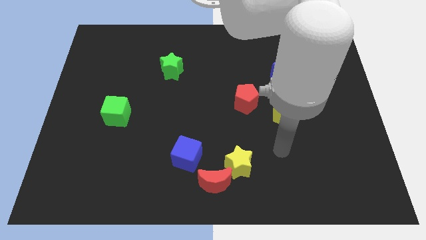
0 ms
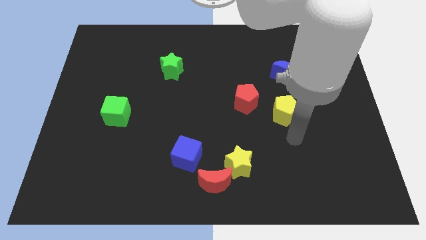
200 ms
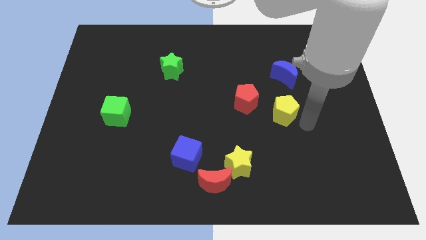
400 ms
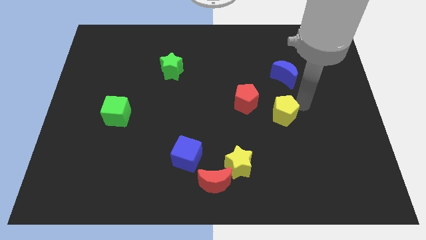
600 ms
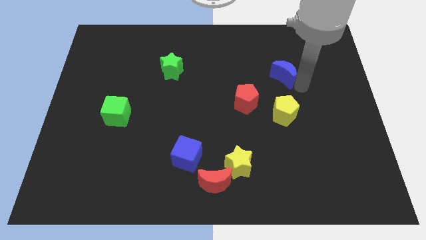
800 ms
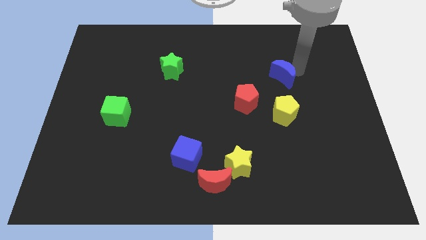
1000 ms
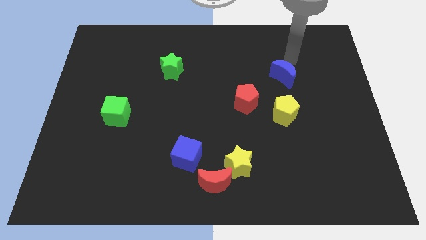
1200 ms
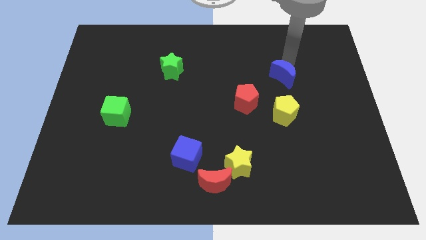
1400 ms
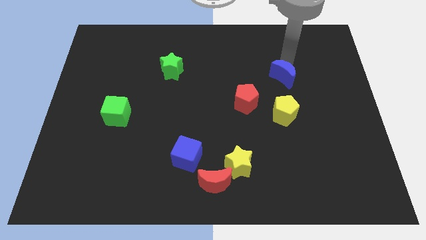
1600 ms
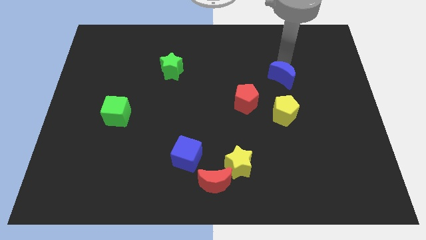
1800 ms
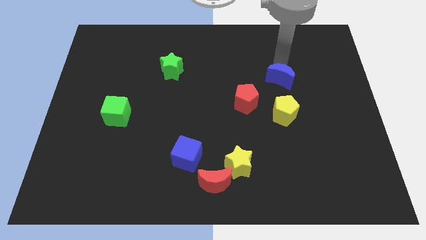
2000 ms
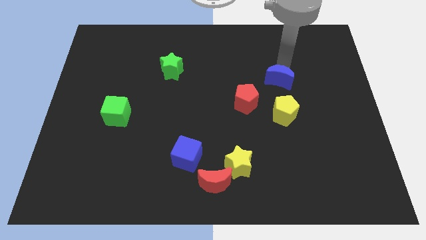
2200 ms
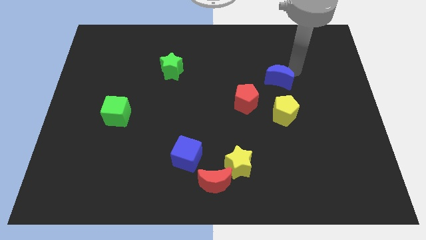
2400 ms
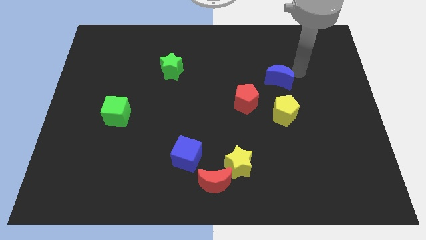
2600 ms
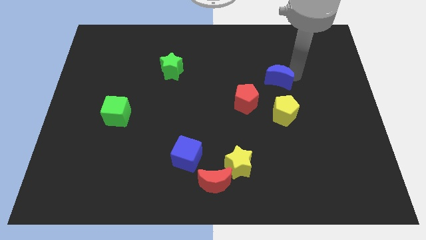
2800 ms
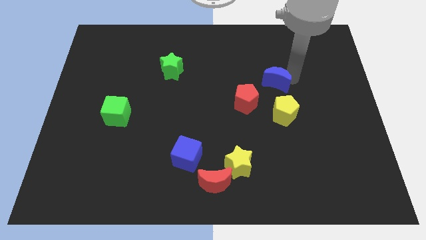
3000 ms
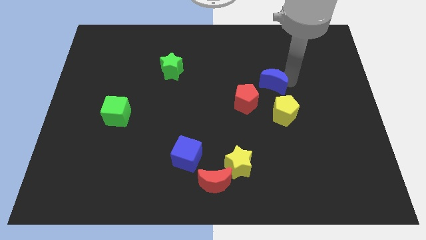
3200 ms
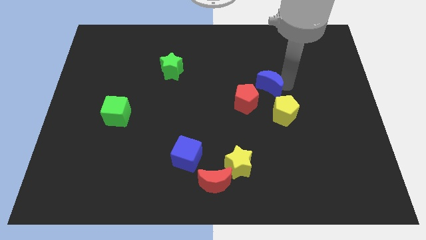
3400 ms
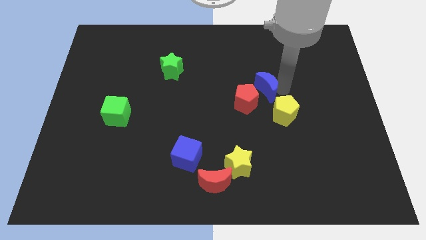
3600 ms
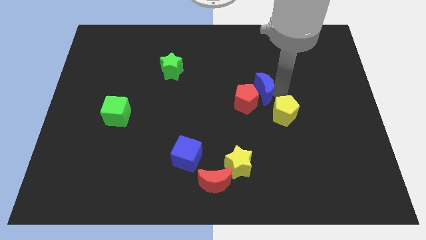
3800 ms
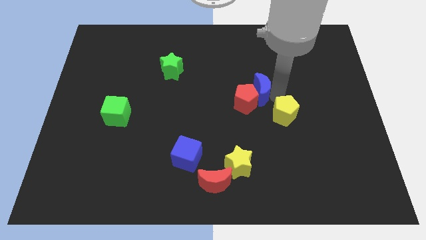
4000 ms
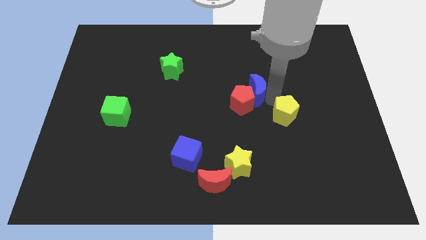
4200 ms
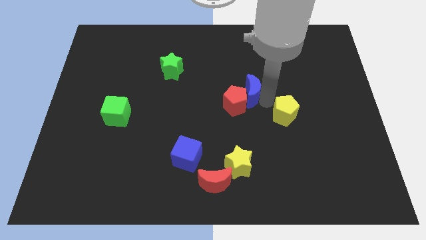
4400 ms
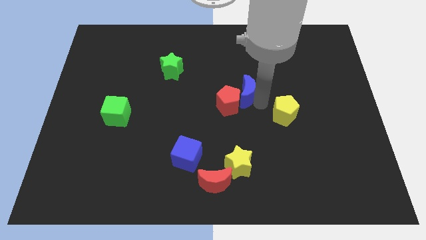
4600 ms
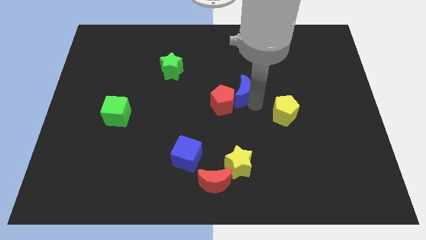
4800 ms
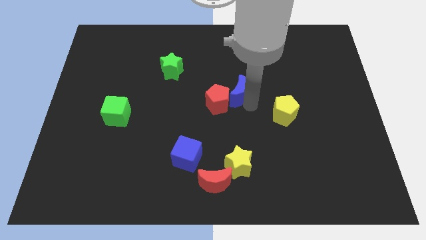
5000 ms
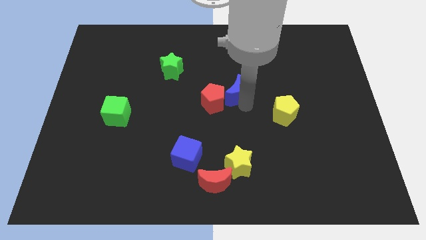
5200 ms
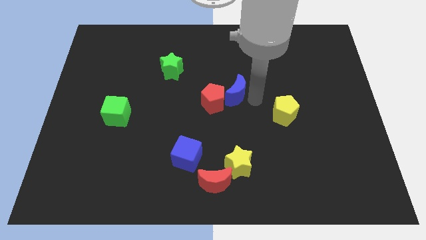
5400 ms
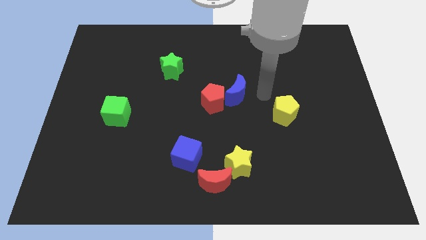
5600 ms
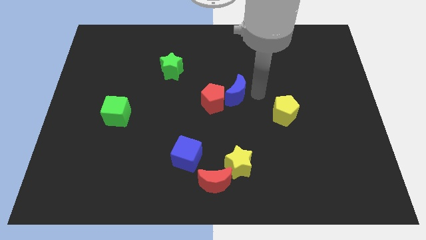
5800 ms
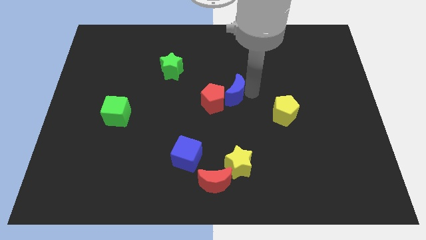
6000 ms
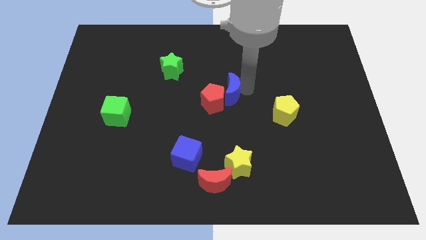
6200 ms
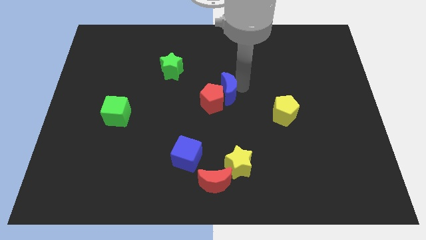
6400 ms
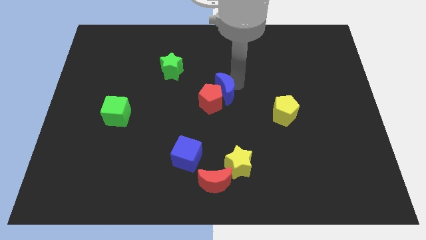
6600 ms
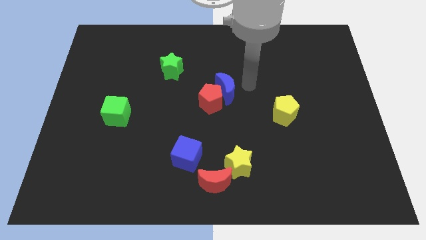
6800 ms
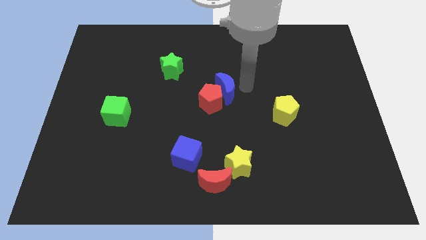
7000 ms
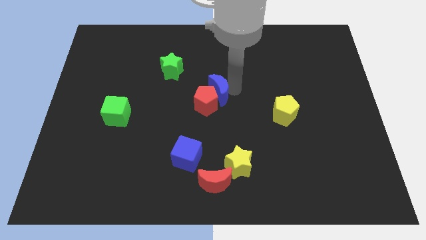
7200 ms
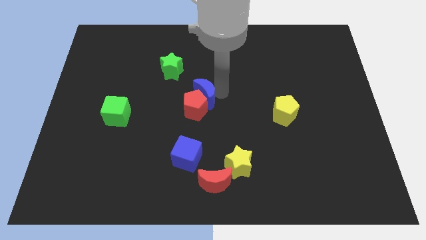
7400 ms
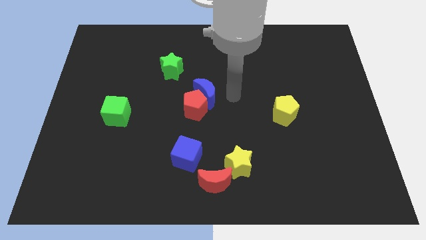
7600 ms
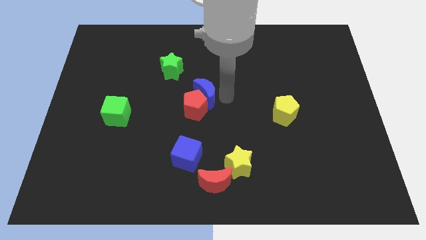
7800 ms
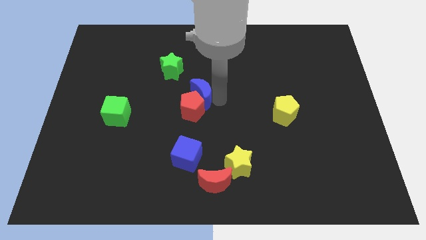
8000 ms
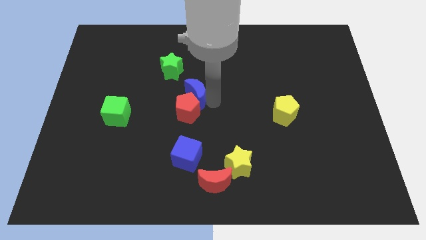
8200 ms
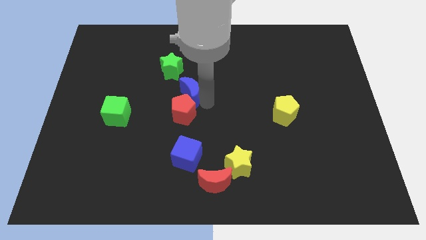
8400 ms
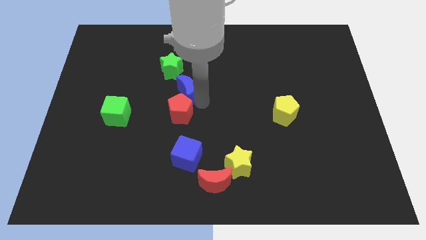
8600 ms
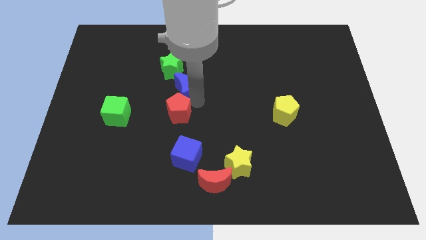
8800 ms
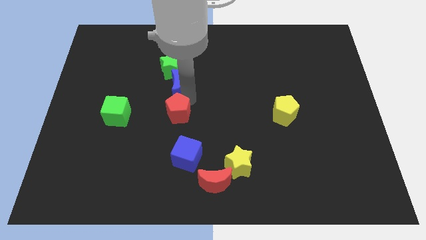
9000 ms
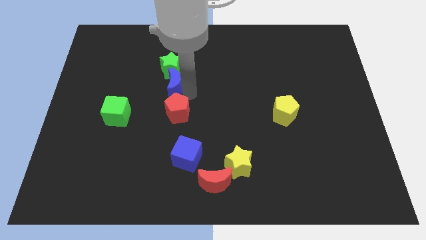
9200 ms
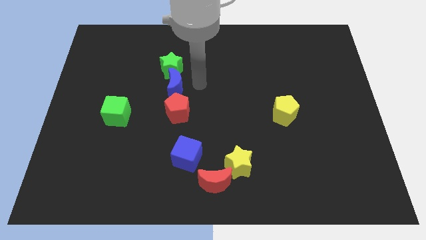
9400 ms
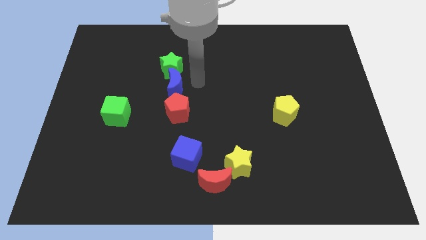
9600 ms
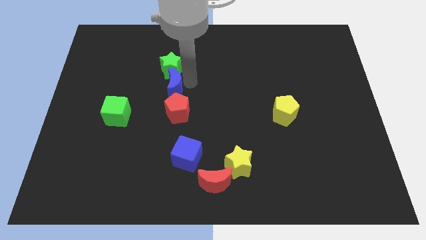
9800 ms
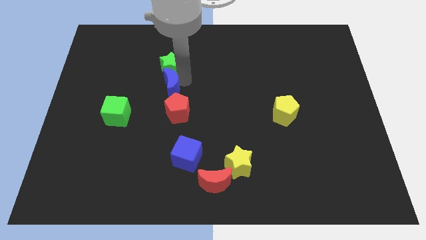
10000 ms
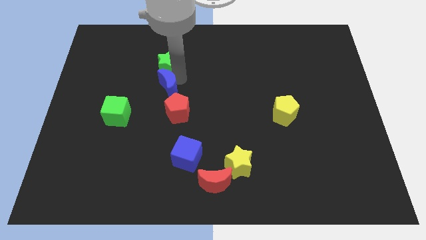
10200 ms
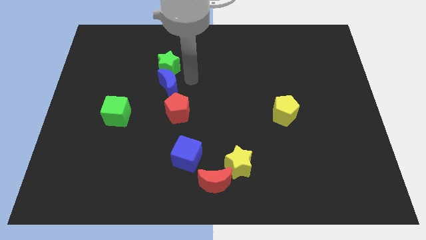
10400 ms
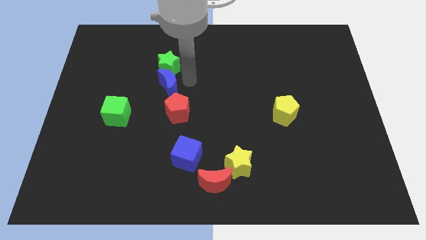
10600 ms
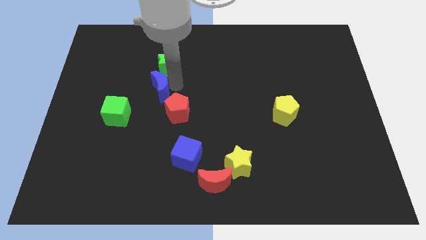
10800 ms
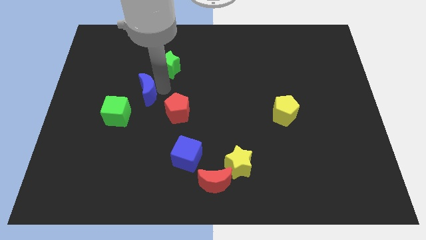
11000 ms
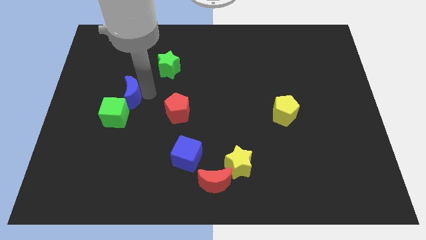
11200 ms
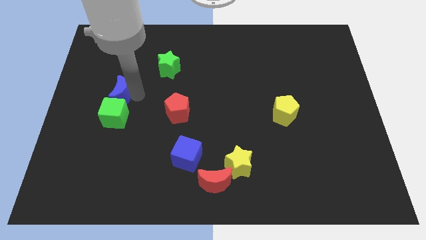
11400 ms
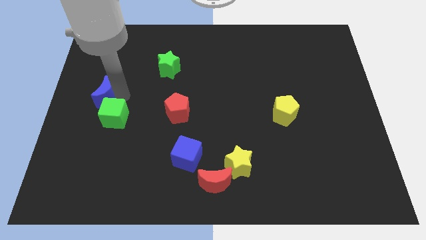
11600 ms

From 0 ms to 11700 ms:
push the blue moon to the center left

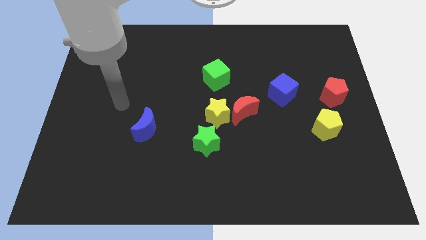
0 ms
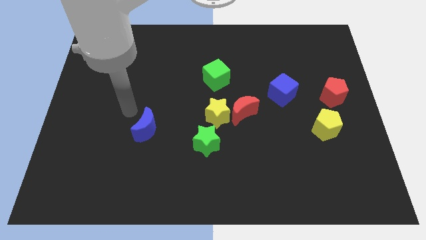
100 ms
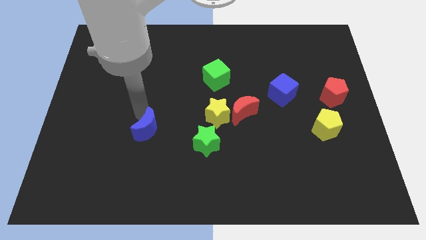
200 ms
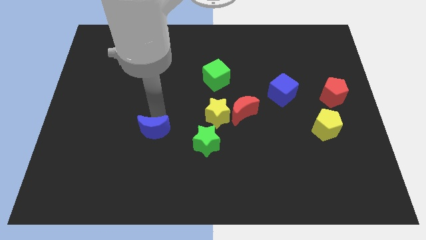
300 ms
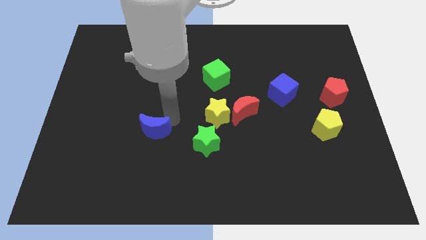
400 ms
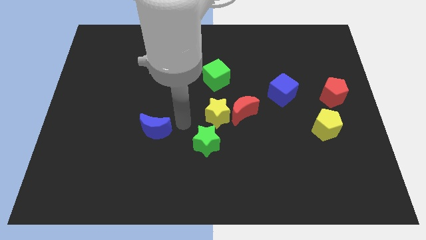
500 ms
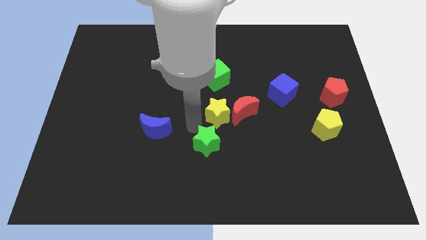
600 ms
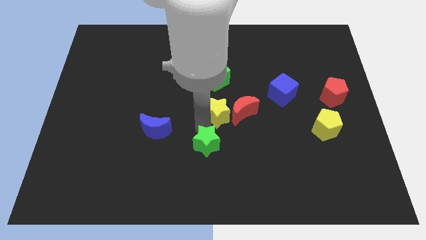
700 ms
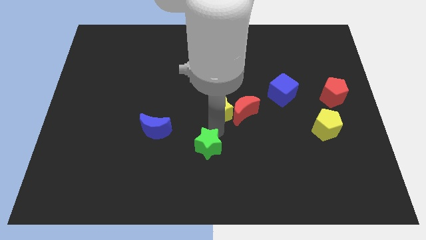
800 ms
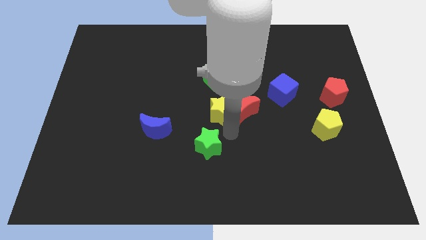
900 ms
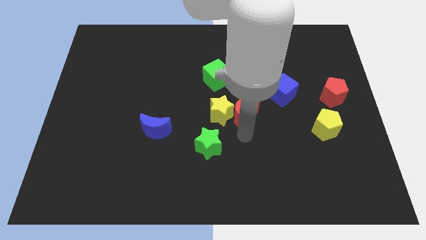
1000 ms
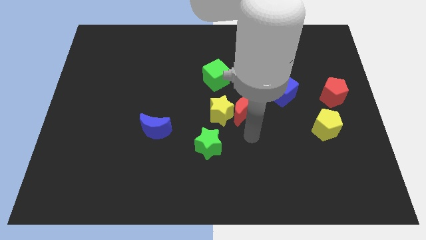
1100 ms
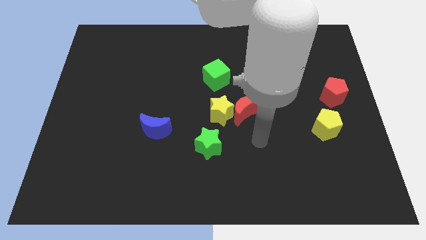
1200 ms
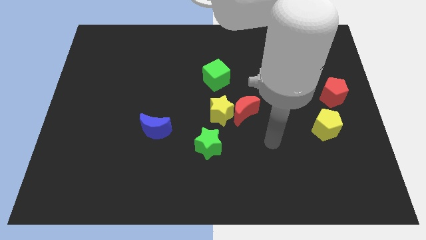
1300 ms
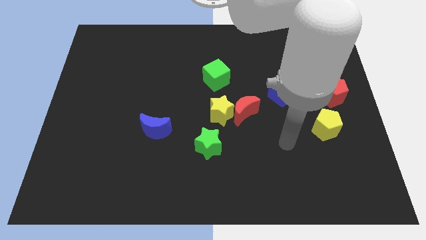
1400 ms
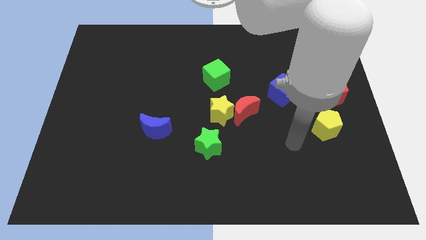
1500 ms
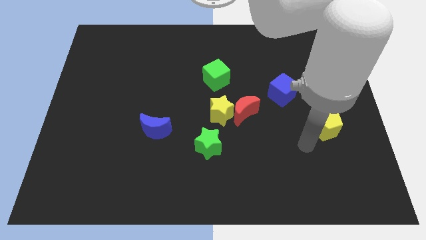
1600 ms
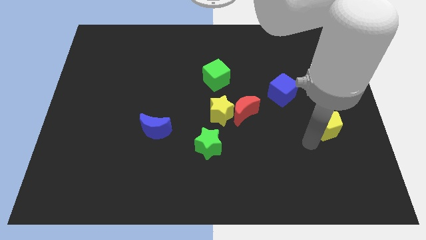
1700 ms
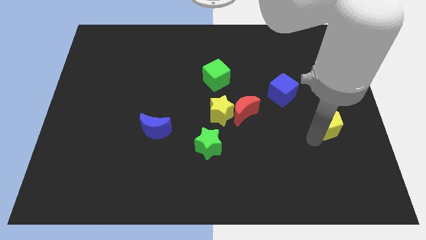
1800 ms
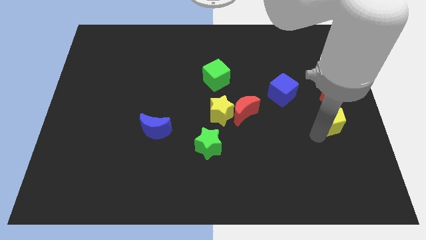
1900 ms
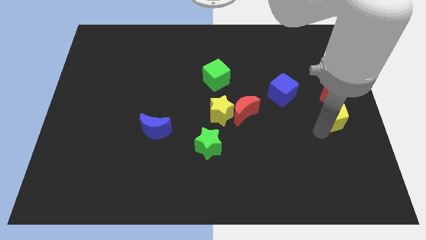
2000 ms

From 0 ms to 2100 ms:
put the yellow pentagon to the right side
